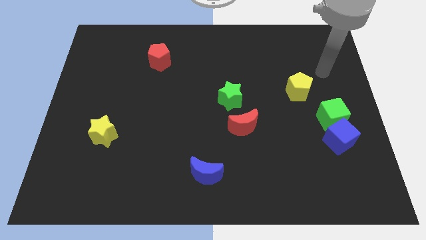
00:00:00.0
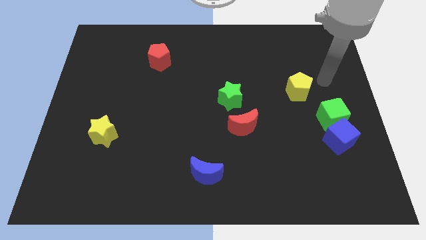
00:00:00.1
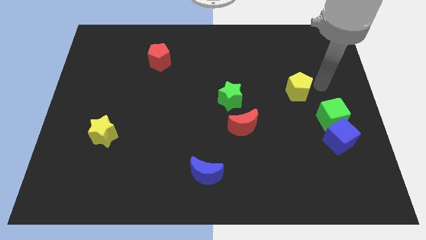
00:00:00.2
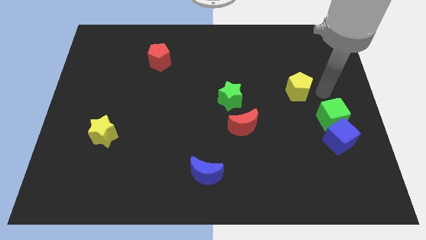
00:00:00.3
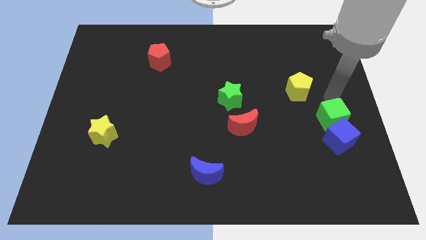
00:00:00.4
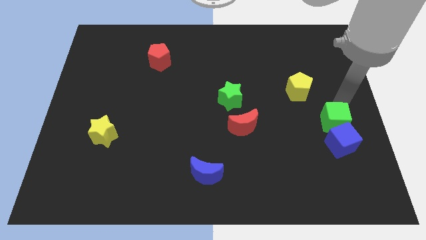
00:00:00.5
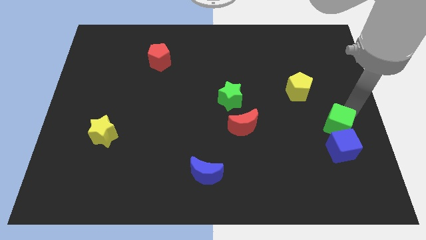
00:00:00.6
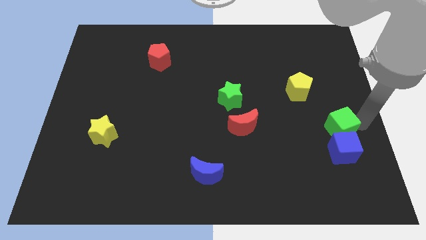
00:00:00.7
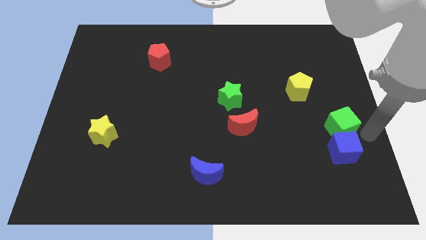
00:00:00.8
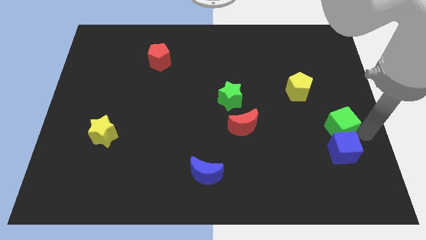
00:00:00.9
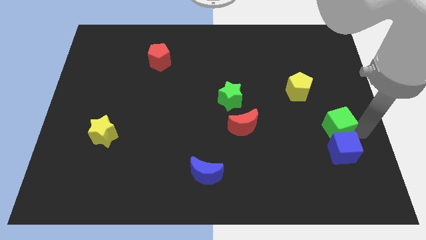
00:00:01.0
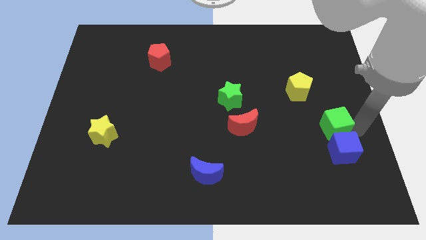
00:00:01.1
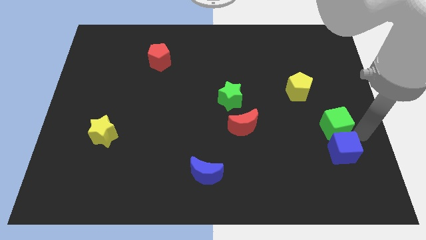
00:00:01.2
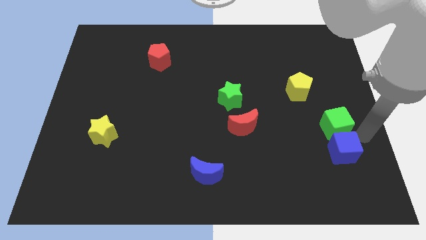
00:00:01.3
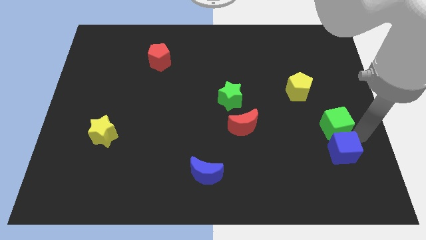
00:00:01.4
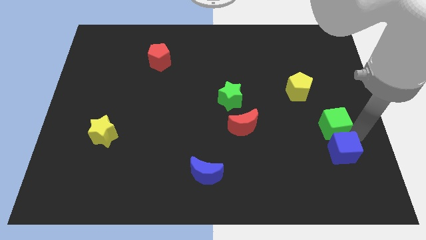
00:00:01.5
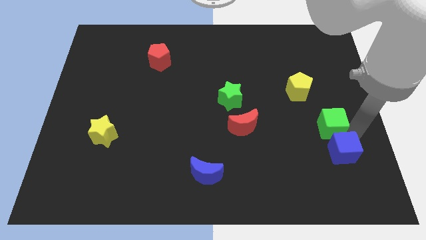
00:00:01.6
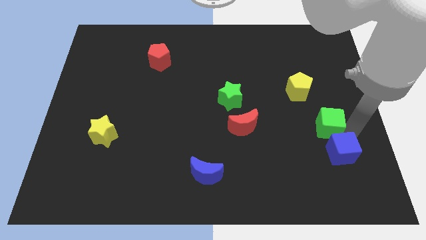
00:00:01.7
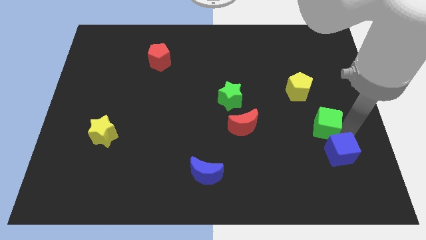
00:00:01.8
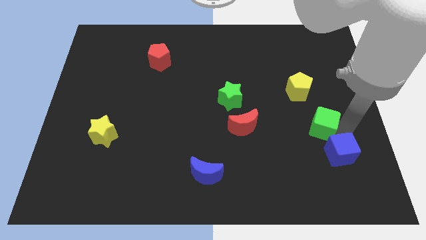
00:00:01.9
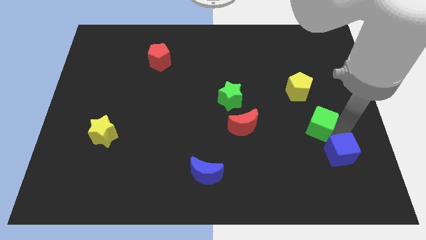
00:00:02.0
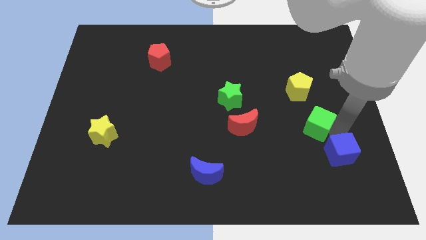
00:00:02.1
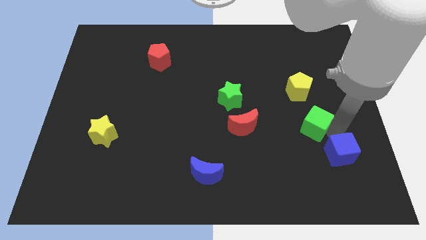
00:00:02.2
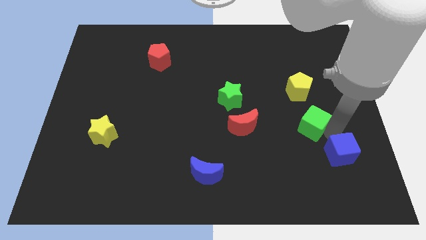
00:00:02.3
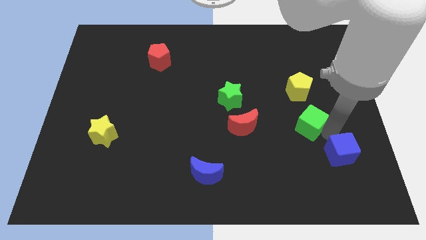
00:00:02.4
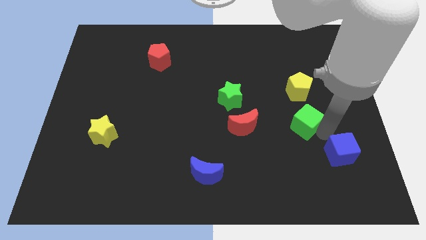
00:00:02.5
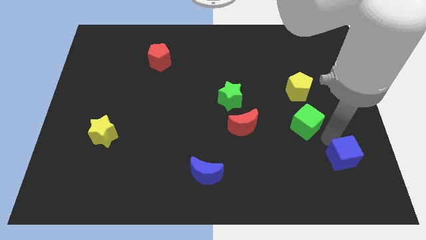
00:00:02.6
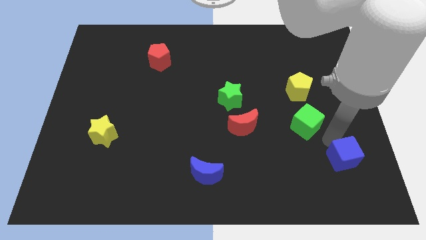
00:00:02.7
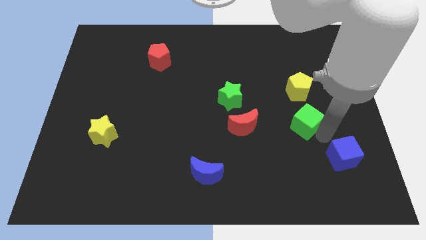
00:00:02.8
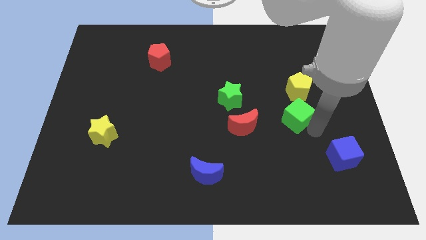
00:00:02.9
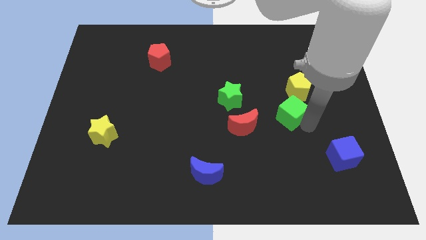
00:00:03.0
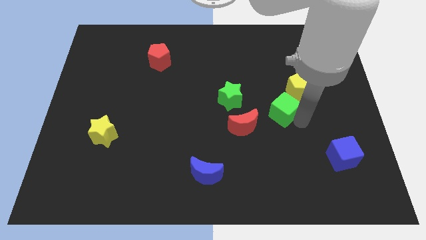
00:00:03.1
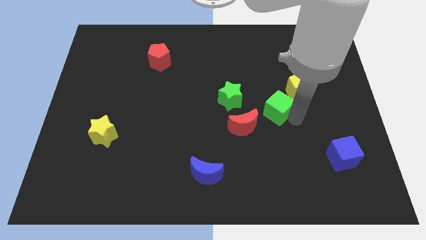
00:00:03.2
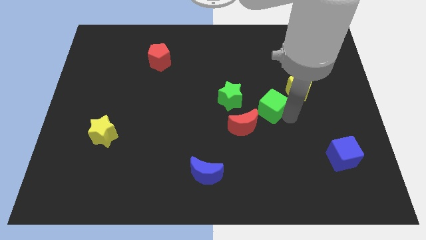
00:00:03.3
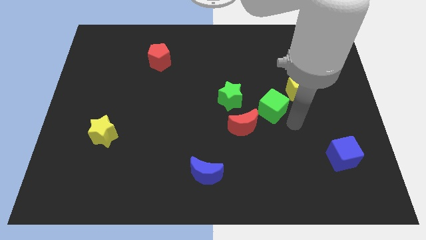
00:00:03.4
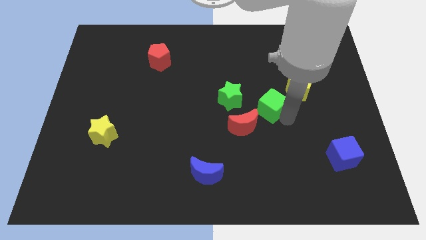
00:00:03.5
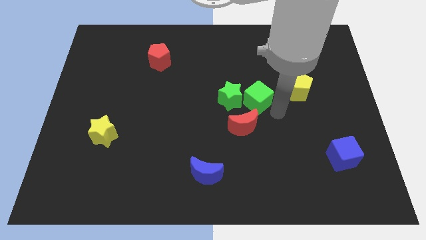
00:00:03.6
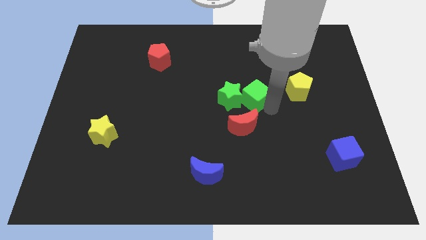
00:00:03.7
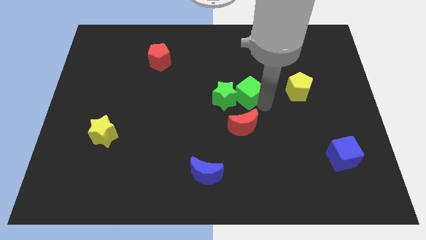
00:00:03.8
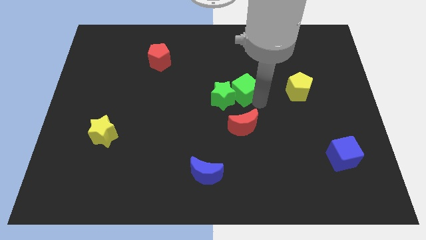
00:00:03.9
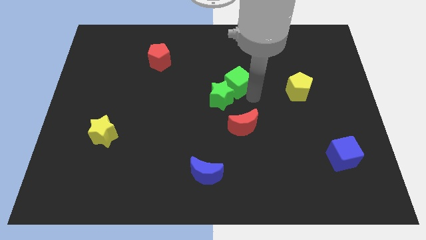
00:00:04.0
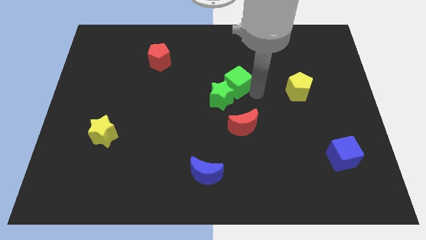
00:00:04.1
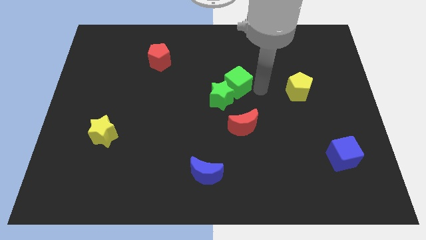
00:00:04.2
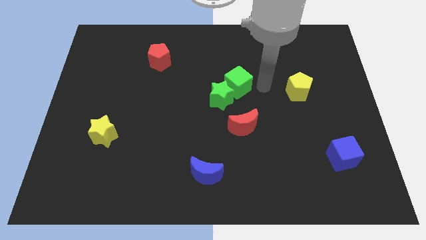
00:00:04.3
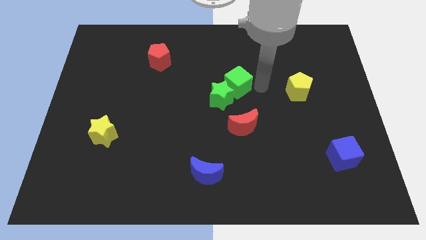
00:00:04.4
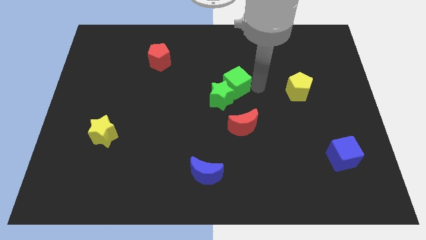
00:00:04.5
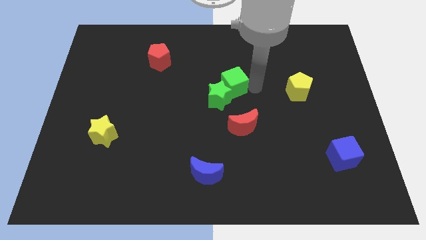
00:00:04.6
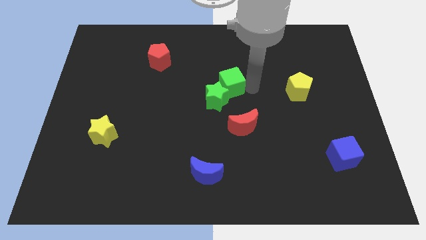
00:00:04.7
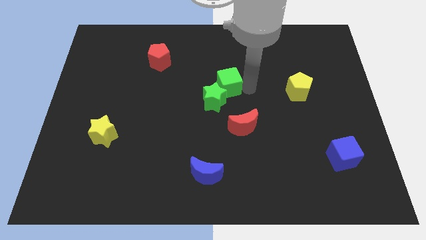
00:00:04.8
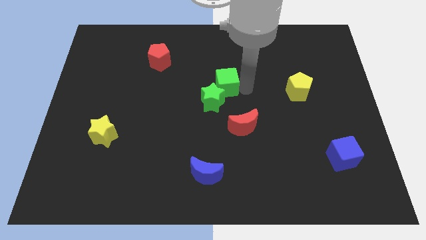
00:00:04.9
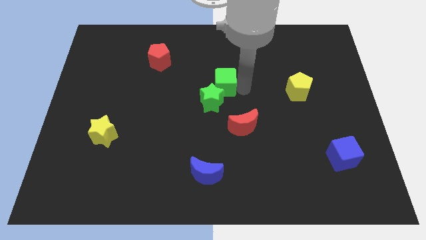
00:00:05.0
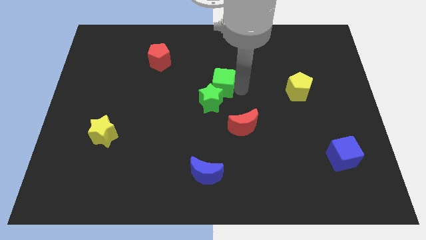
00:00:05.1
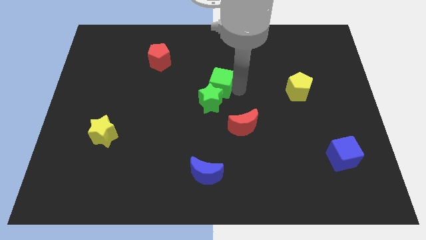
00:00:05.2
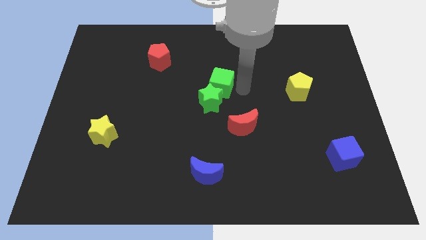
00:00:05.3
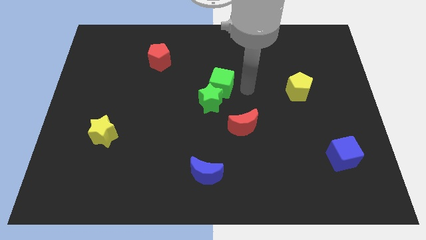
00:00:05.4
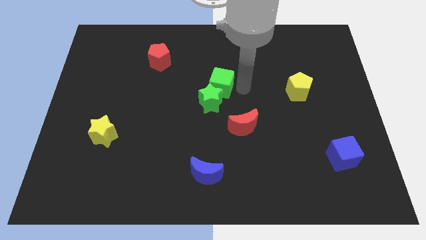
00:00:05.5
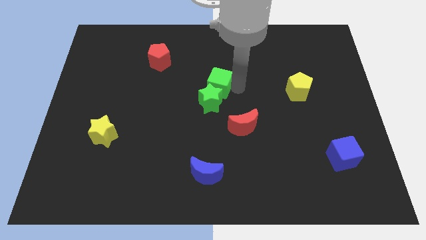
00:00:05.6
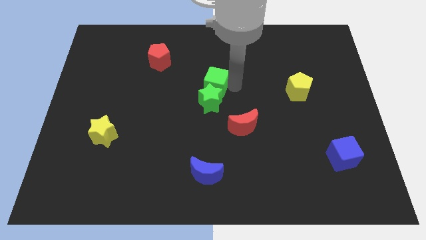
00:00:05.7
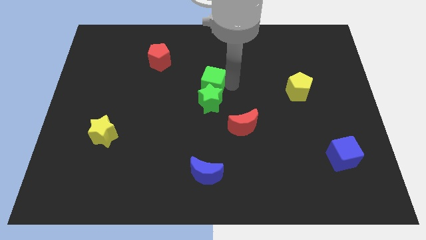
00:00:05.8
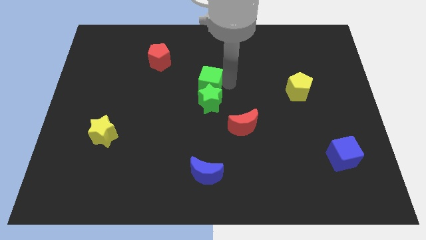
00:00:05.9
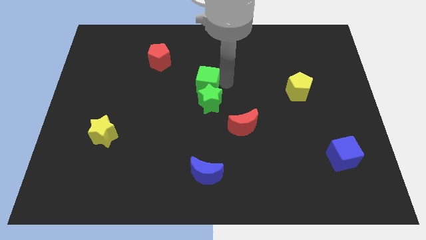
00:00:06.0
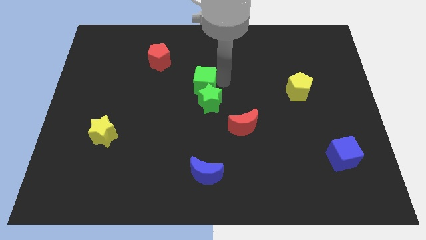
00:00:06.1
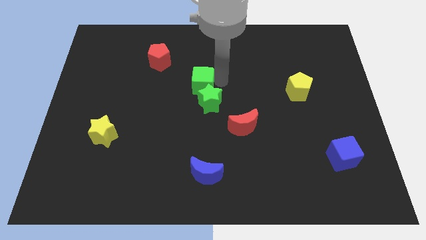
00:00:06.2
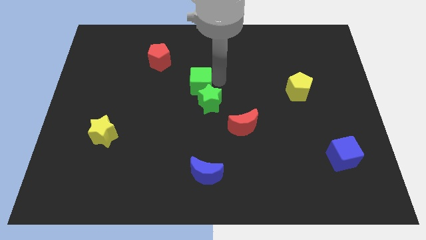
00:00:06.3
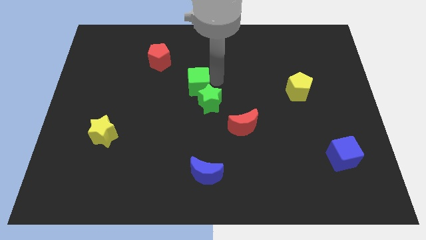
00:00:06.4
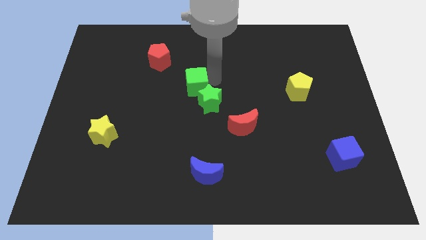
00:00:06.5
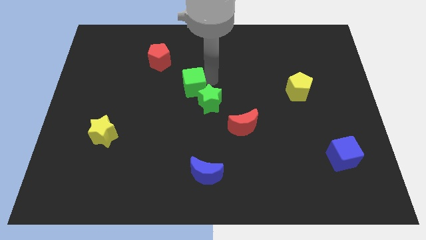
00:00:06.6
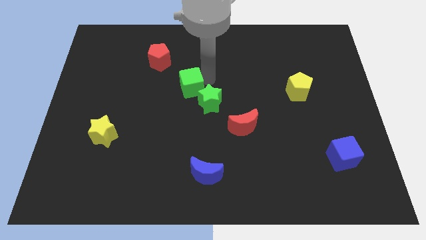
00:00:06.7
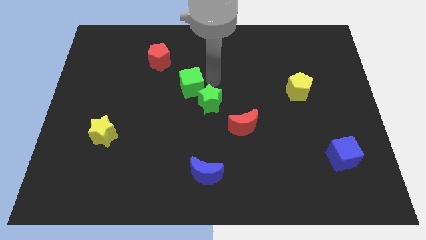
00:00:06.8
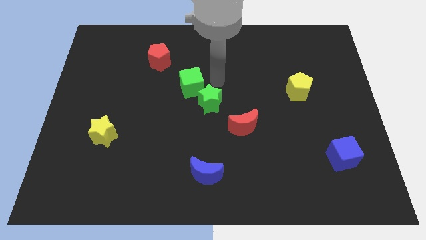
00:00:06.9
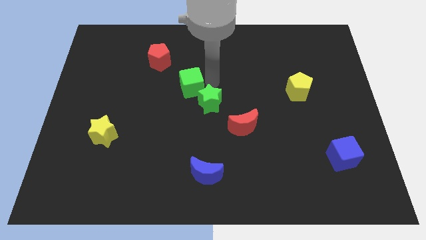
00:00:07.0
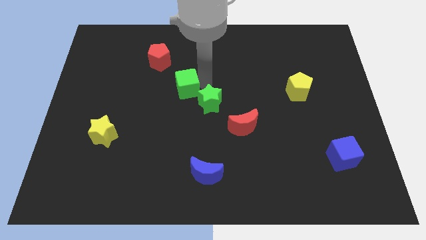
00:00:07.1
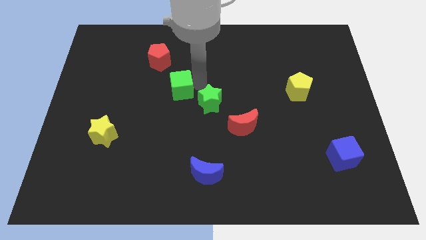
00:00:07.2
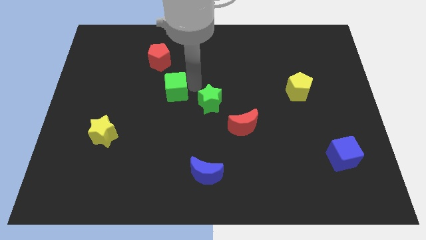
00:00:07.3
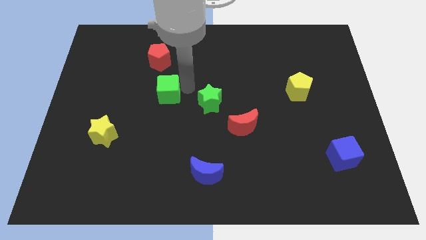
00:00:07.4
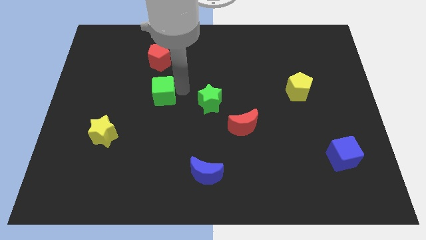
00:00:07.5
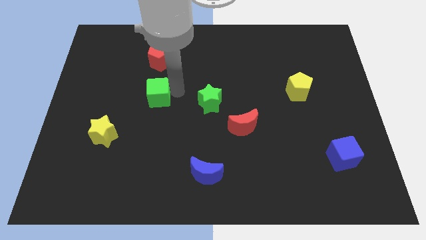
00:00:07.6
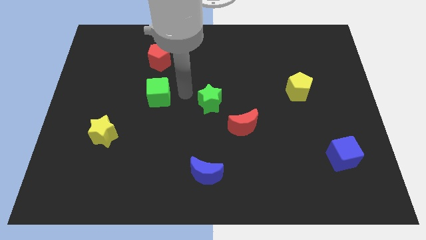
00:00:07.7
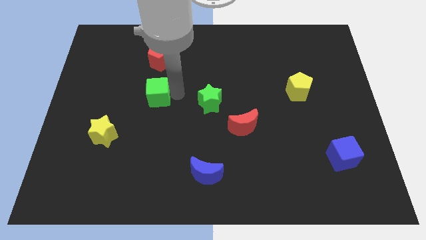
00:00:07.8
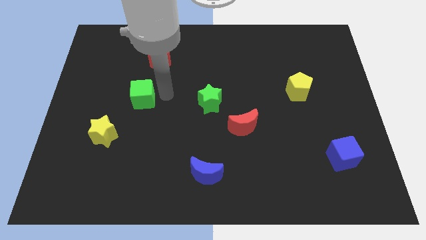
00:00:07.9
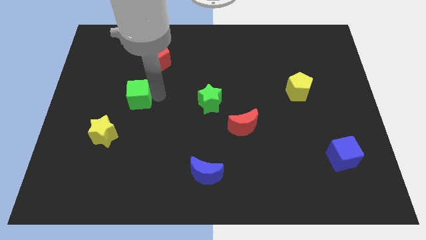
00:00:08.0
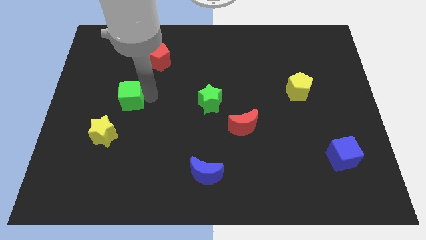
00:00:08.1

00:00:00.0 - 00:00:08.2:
move the green cube to the top side of the yellow star
